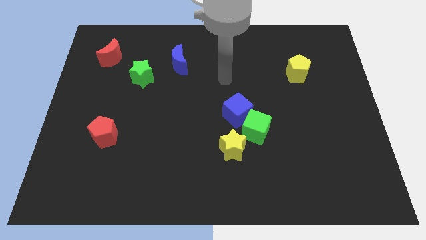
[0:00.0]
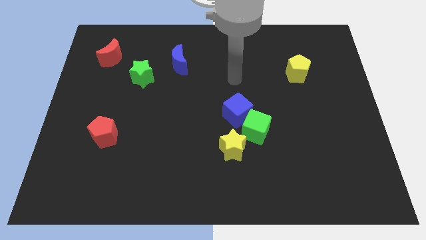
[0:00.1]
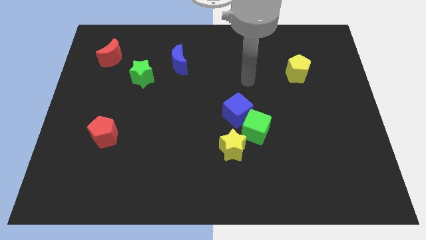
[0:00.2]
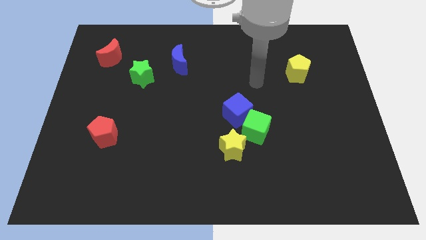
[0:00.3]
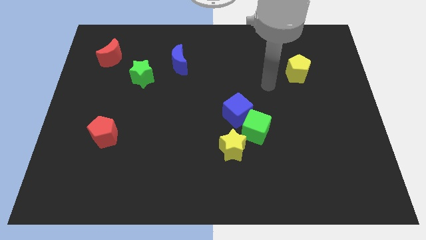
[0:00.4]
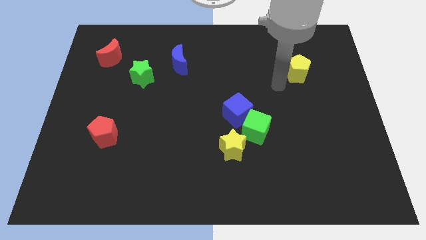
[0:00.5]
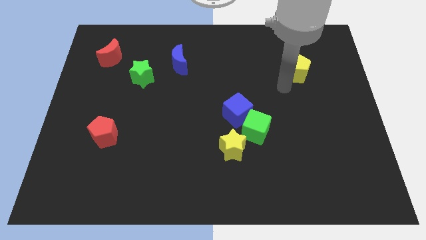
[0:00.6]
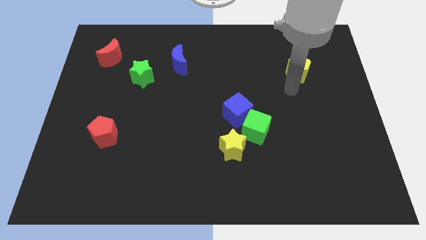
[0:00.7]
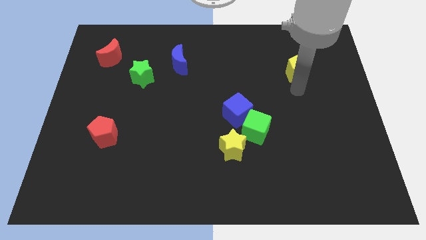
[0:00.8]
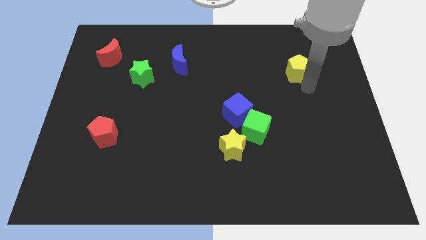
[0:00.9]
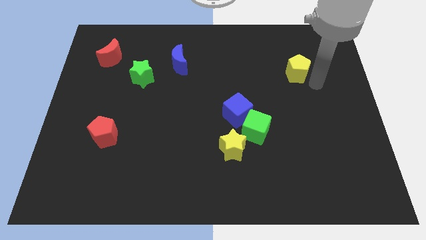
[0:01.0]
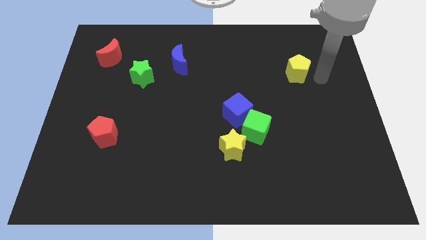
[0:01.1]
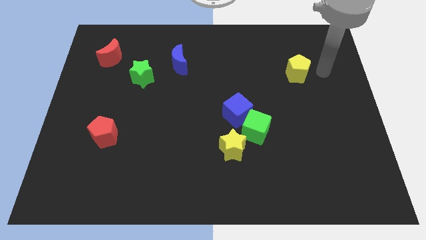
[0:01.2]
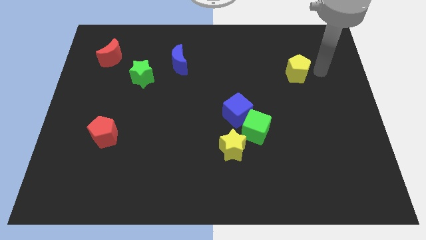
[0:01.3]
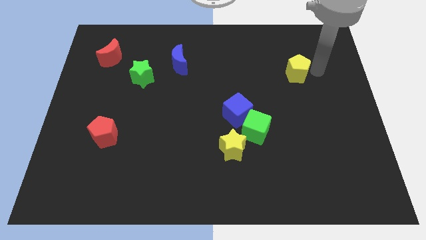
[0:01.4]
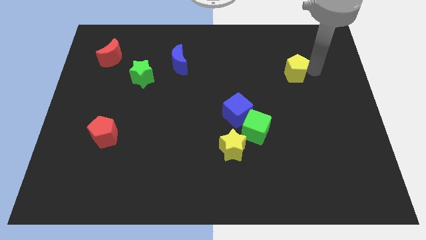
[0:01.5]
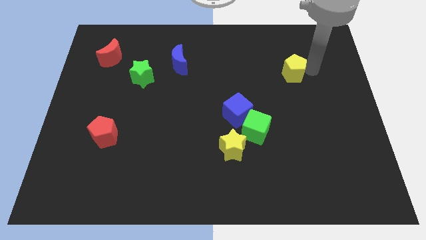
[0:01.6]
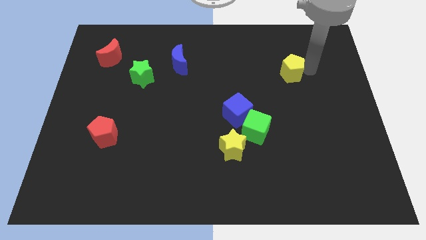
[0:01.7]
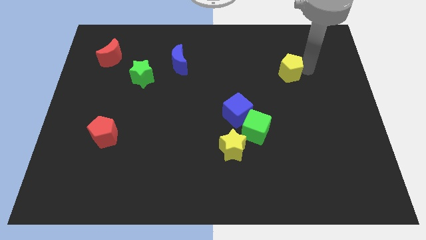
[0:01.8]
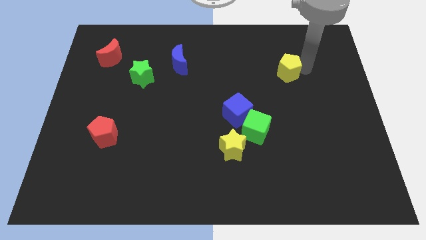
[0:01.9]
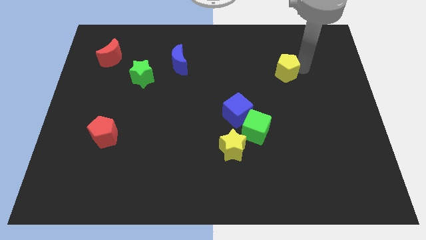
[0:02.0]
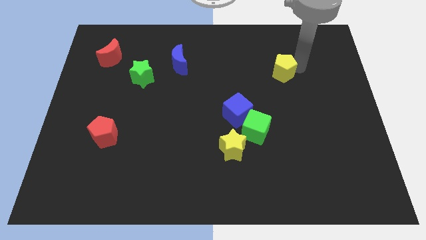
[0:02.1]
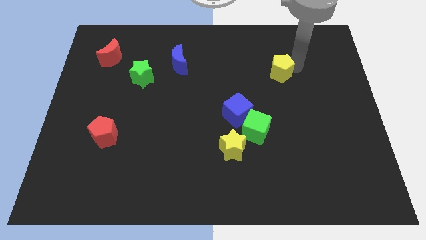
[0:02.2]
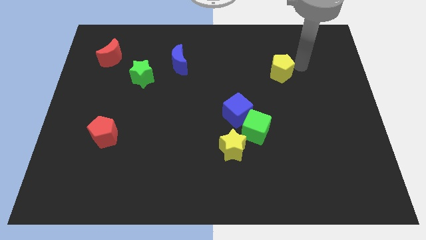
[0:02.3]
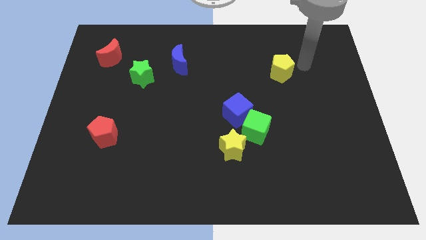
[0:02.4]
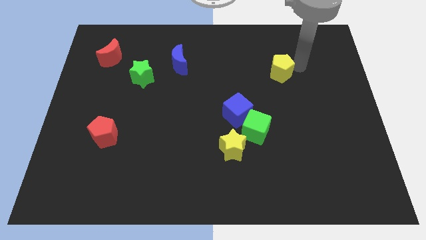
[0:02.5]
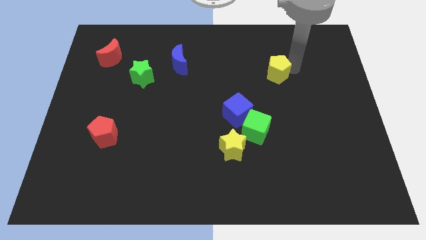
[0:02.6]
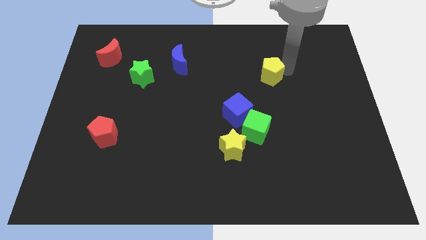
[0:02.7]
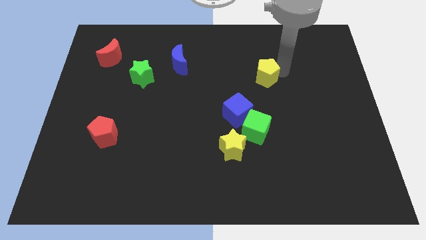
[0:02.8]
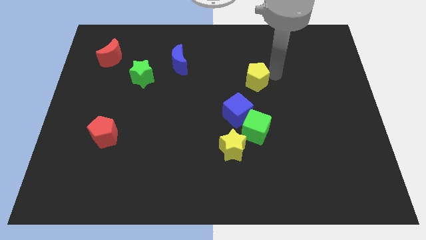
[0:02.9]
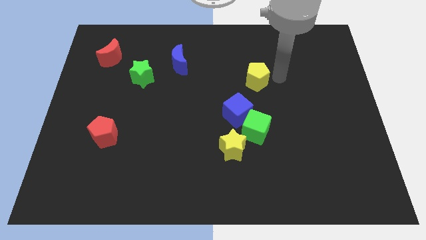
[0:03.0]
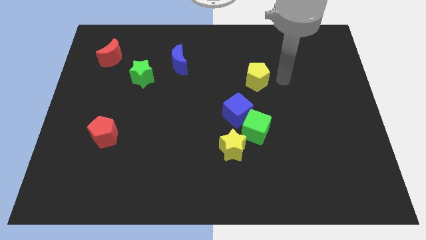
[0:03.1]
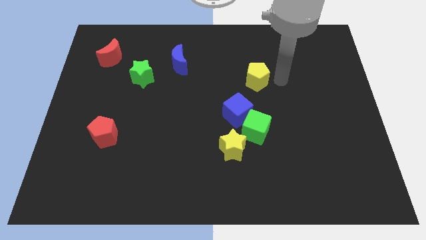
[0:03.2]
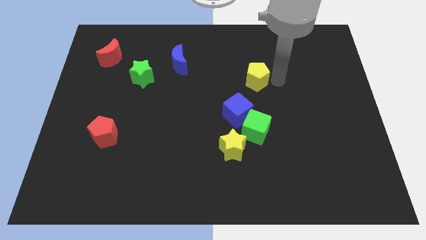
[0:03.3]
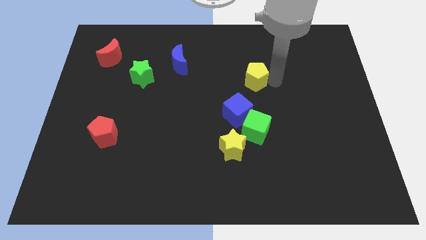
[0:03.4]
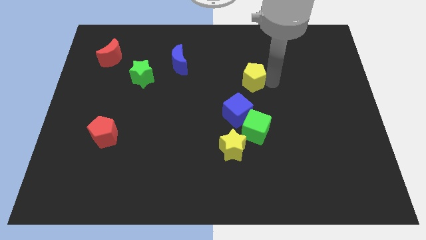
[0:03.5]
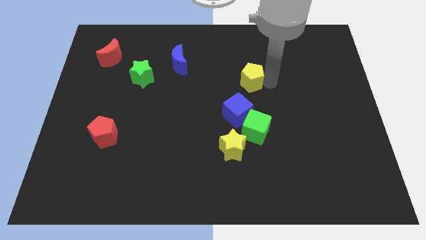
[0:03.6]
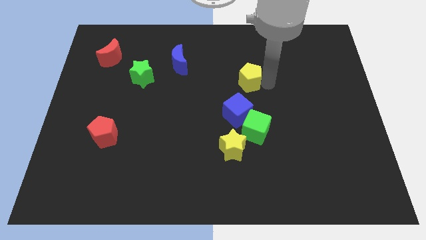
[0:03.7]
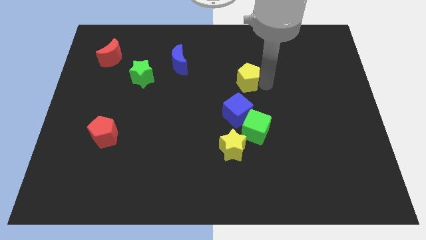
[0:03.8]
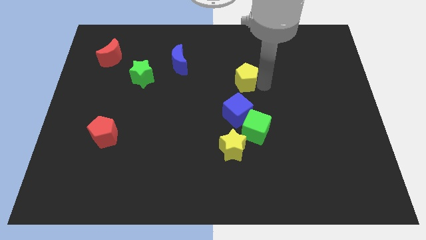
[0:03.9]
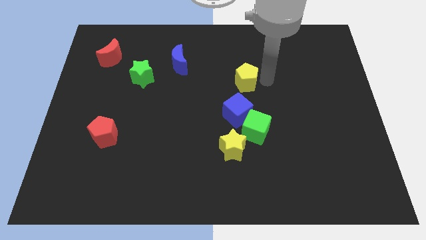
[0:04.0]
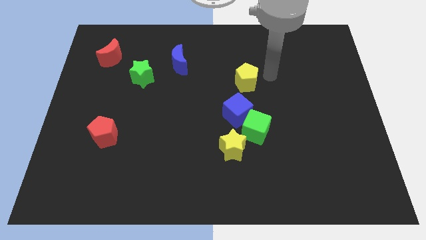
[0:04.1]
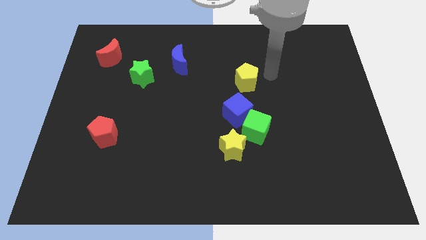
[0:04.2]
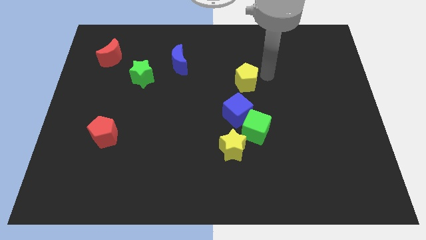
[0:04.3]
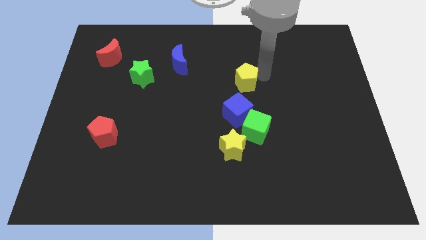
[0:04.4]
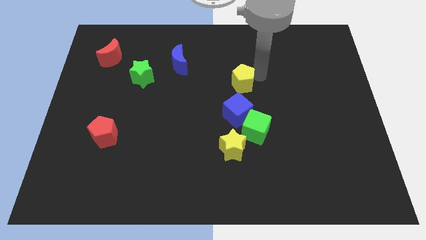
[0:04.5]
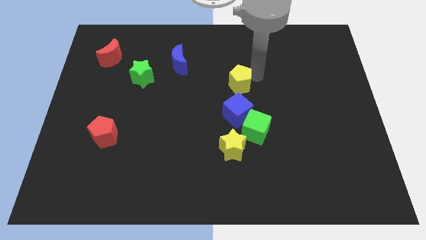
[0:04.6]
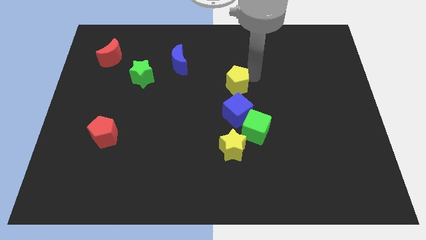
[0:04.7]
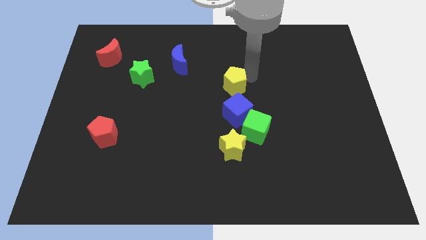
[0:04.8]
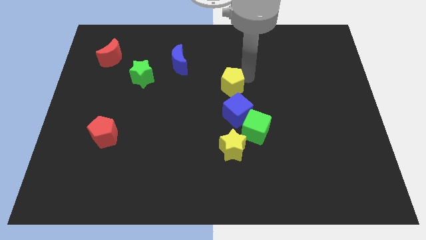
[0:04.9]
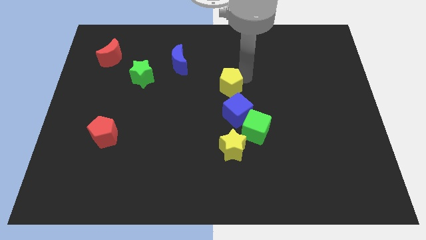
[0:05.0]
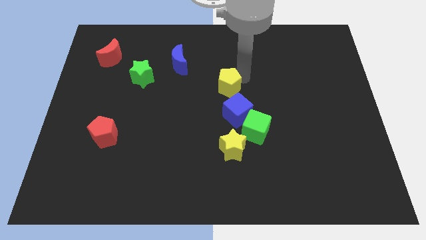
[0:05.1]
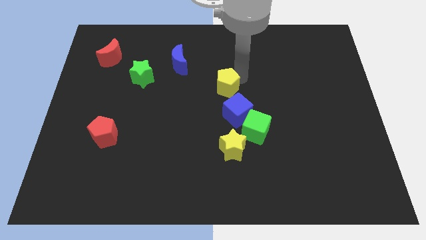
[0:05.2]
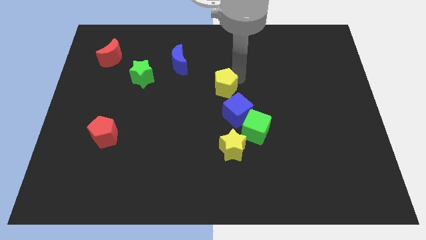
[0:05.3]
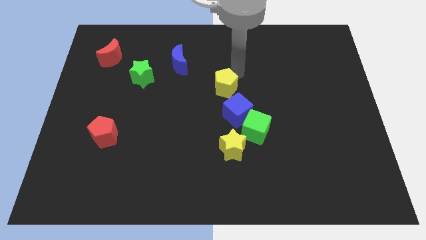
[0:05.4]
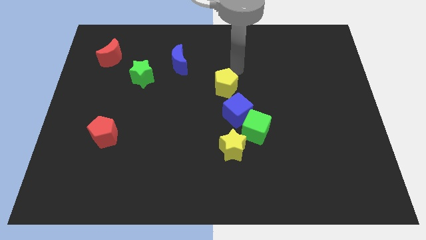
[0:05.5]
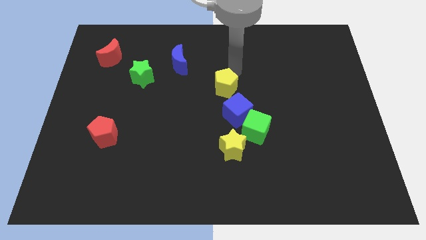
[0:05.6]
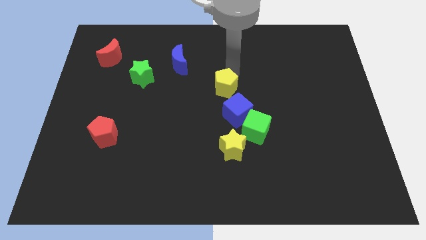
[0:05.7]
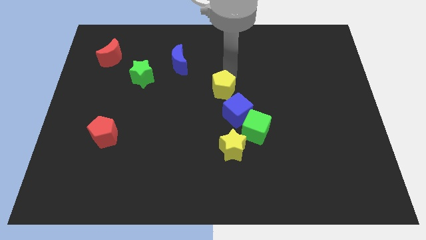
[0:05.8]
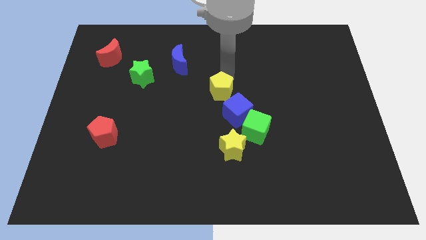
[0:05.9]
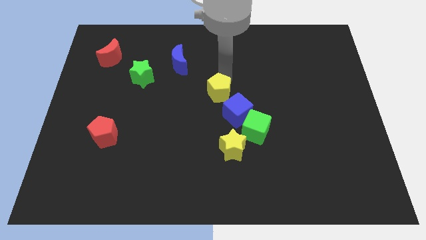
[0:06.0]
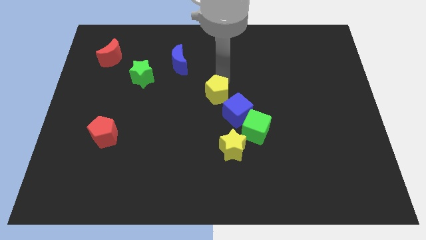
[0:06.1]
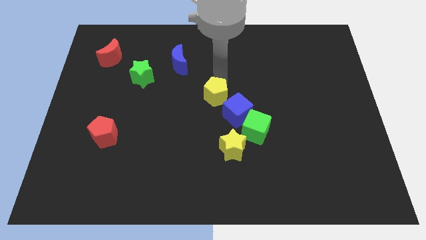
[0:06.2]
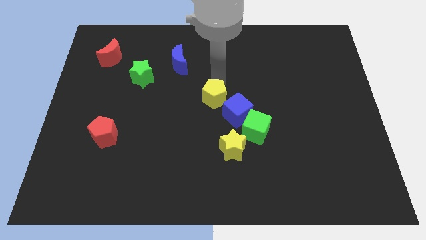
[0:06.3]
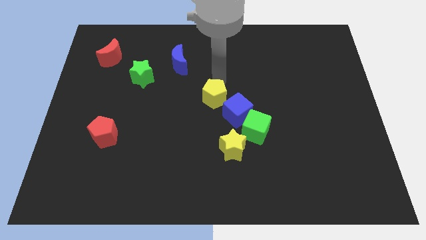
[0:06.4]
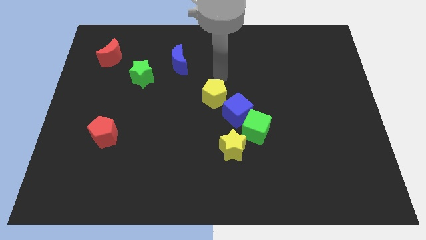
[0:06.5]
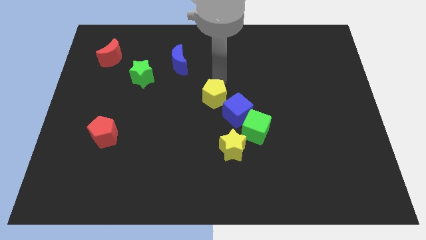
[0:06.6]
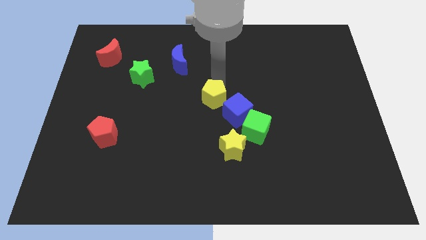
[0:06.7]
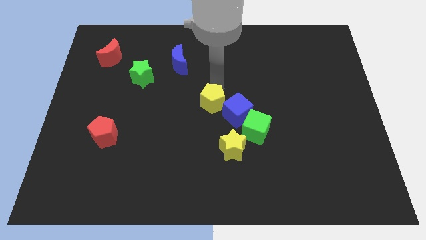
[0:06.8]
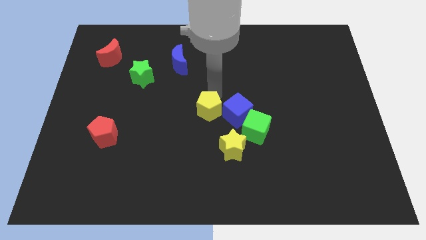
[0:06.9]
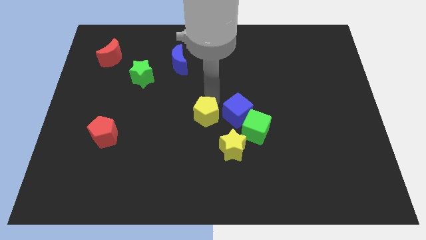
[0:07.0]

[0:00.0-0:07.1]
slide the yellow pentagon diagonally up and to the left of the yellow star

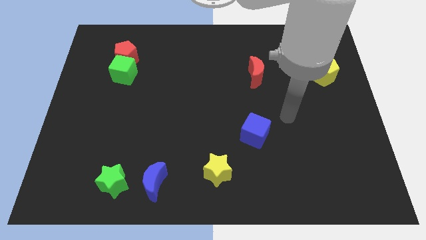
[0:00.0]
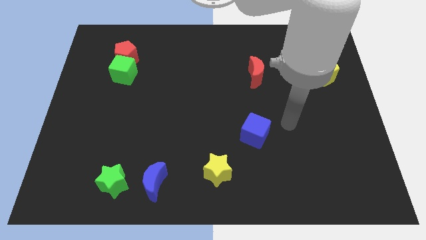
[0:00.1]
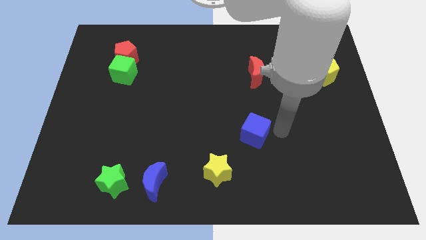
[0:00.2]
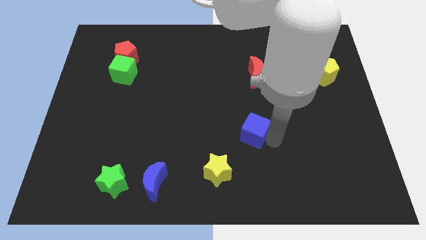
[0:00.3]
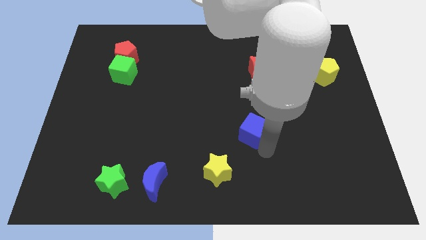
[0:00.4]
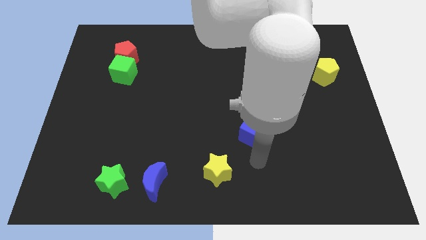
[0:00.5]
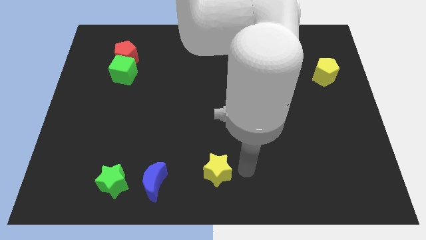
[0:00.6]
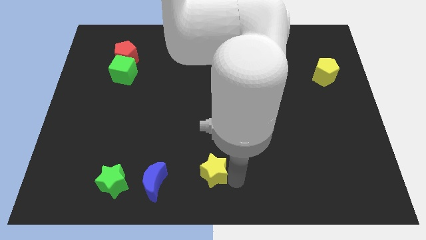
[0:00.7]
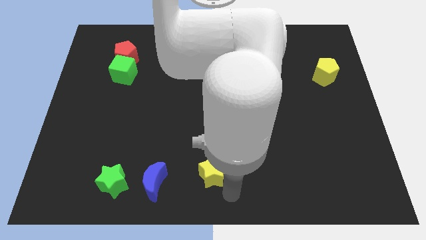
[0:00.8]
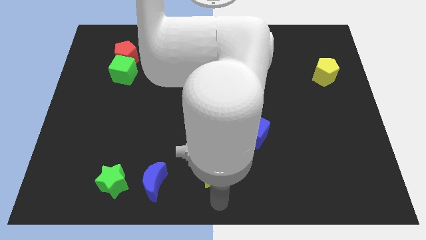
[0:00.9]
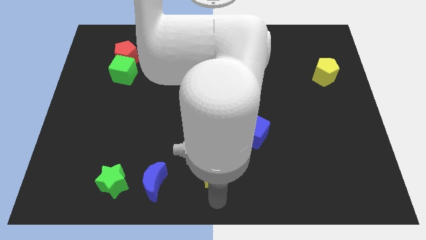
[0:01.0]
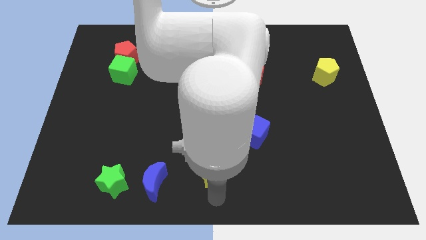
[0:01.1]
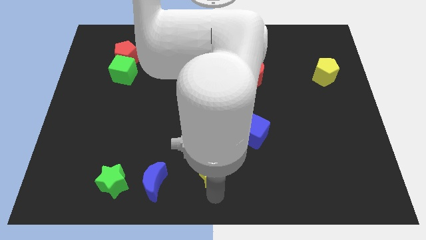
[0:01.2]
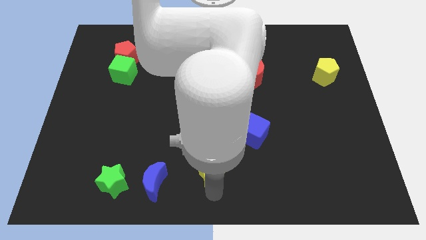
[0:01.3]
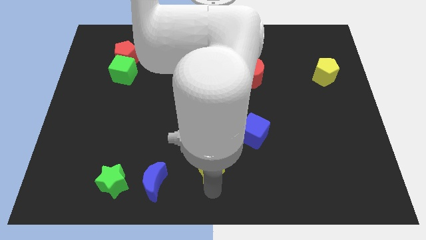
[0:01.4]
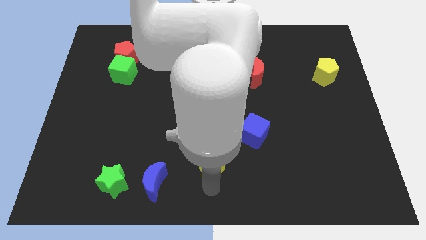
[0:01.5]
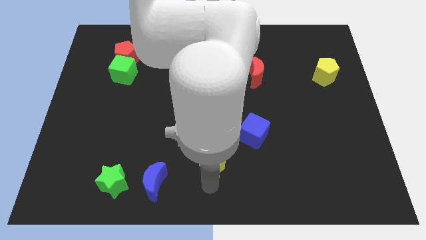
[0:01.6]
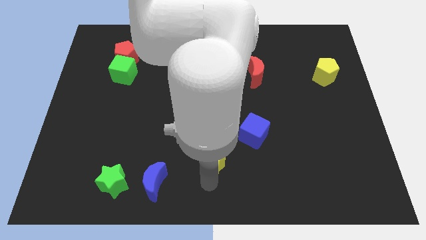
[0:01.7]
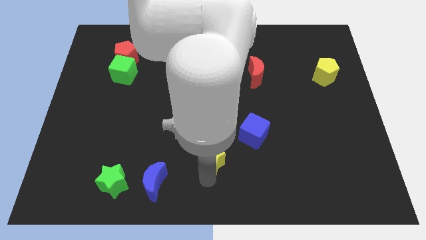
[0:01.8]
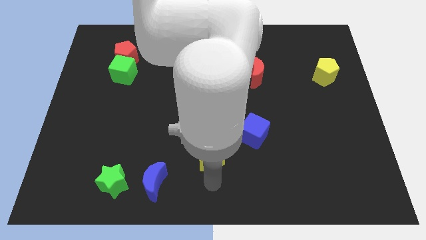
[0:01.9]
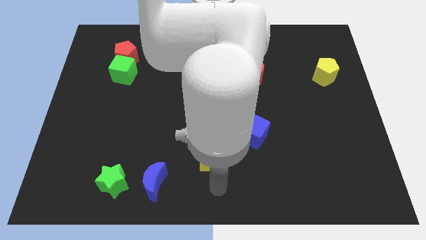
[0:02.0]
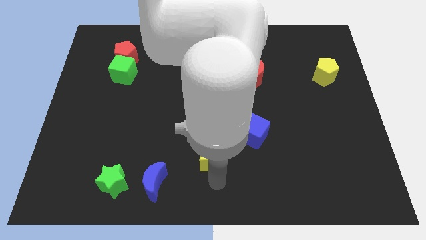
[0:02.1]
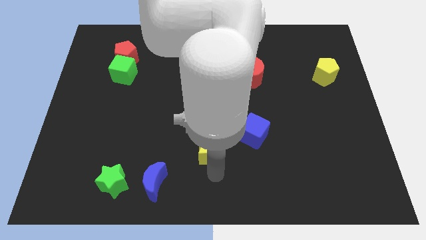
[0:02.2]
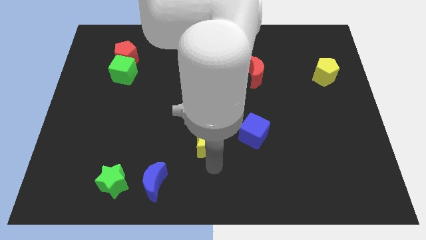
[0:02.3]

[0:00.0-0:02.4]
slide the yellow star to the left side of the blue cube
